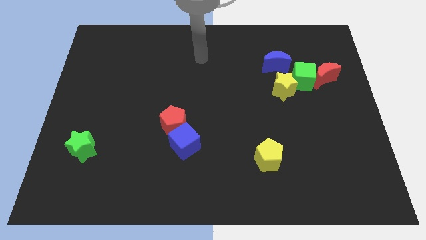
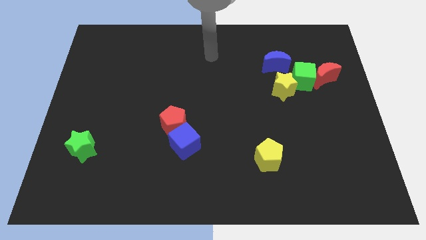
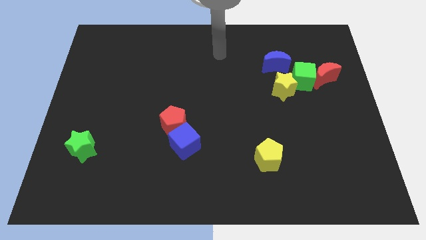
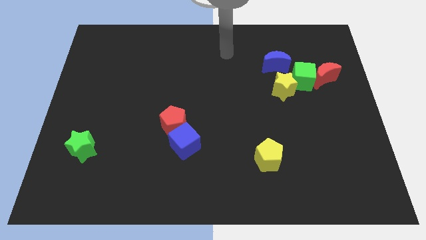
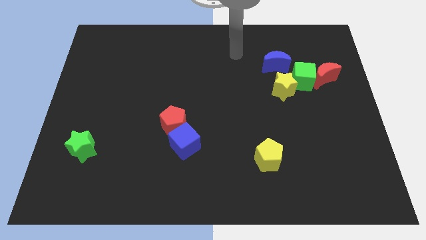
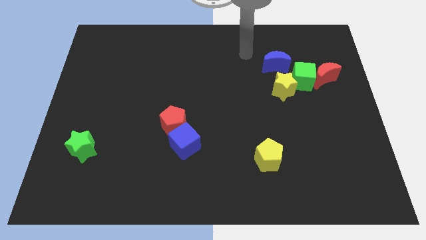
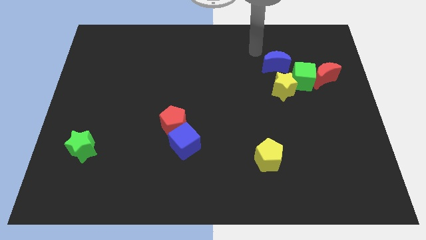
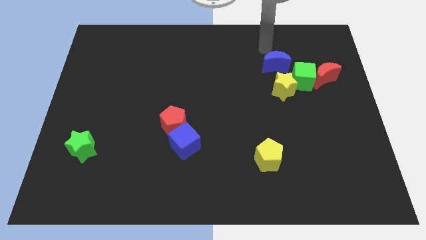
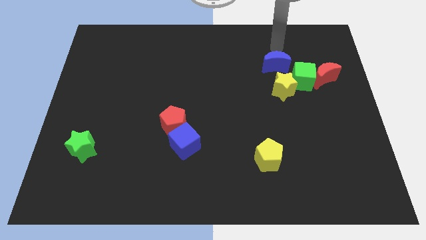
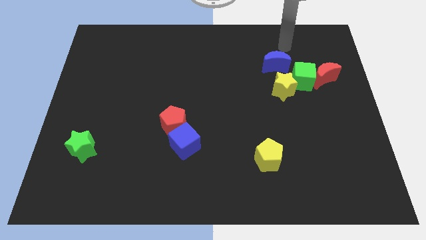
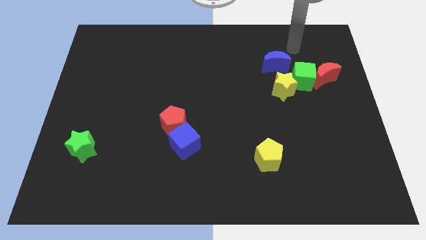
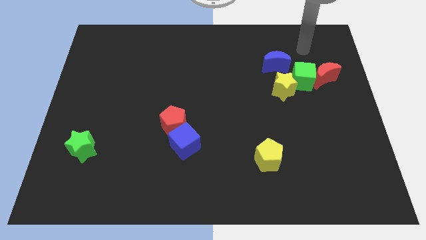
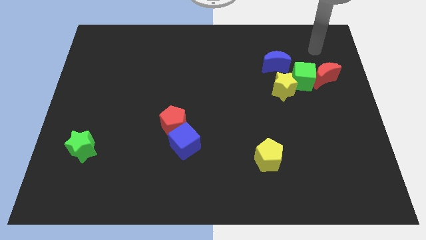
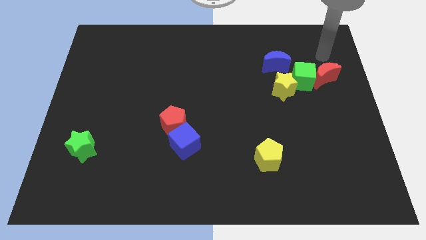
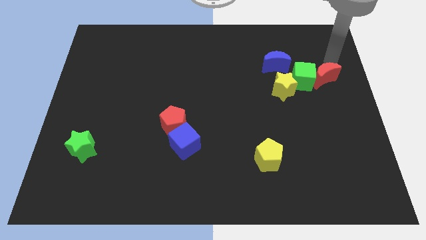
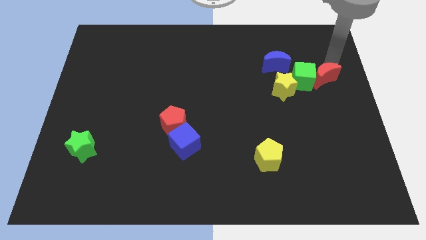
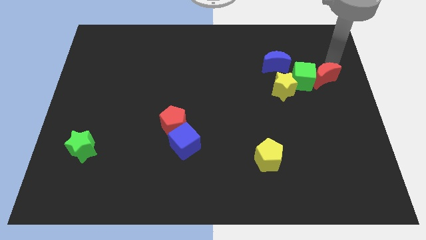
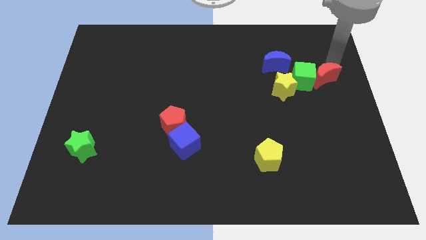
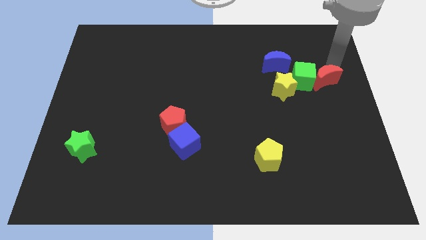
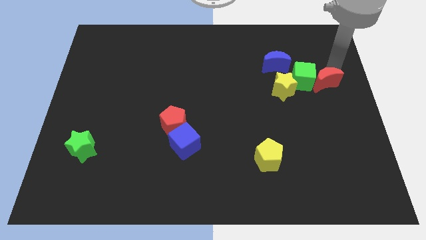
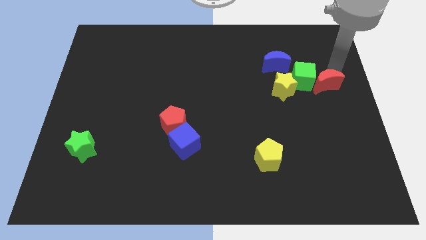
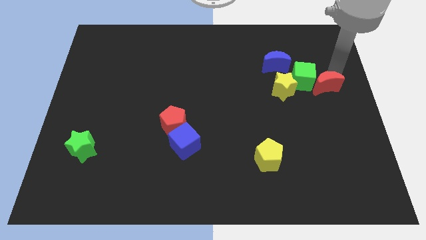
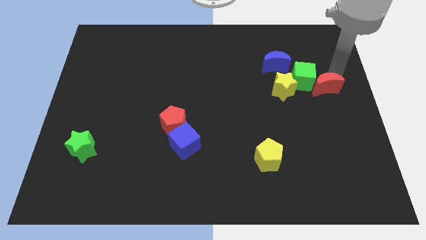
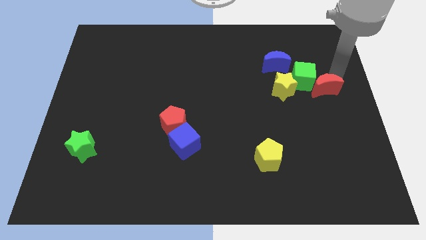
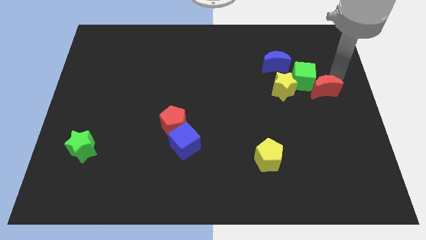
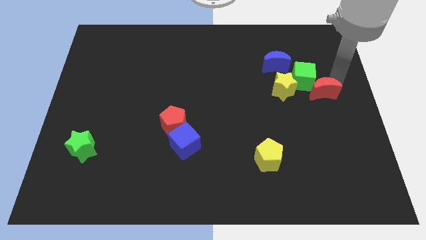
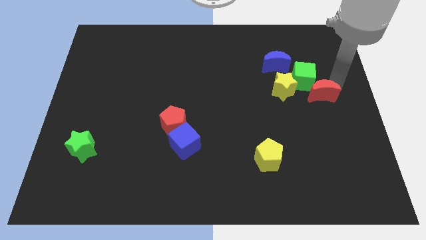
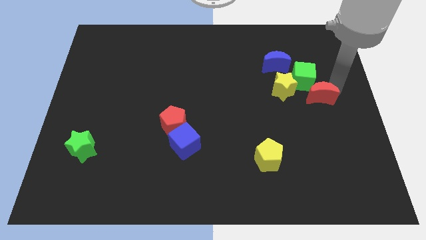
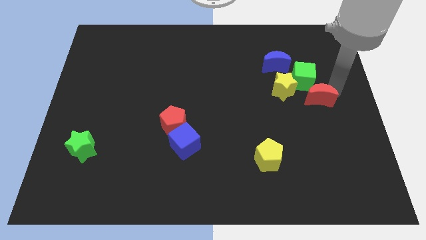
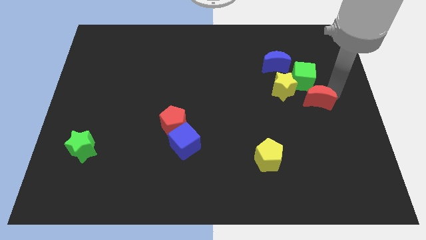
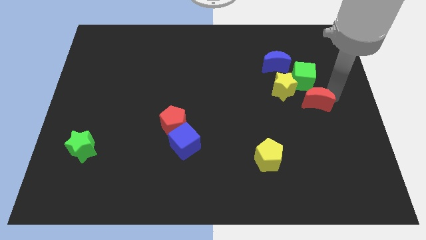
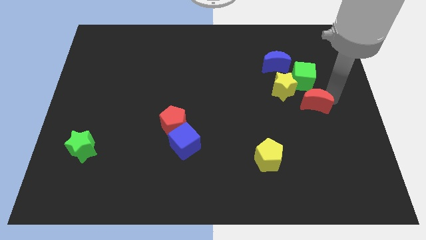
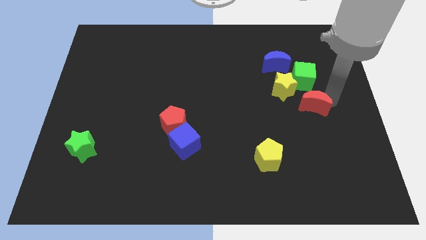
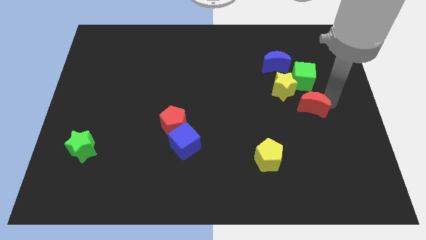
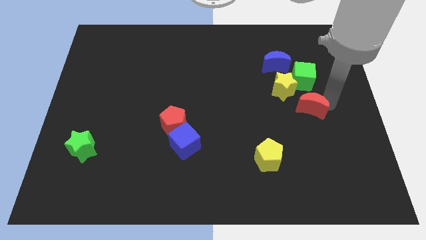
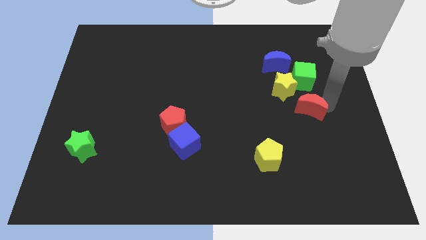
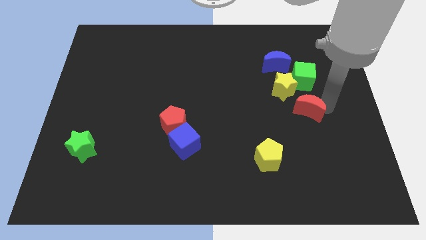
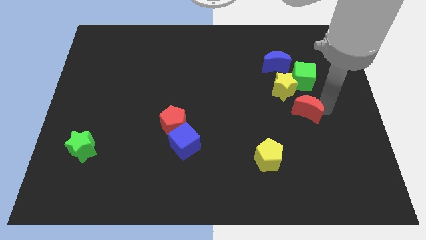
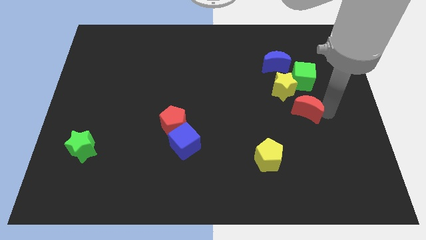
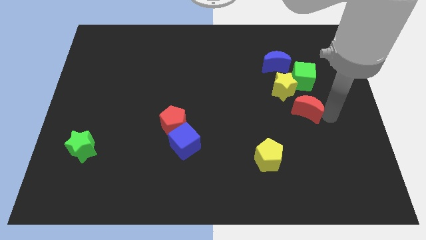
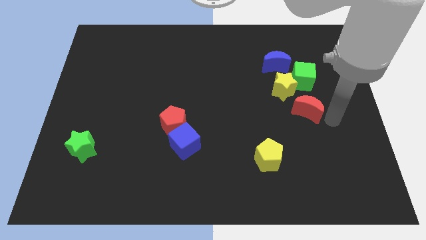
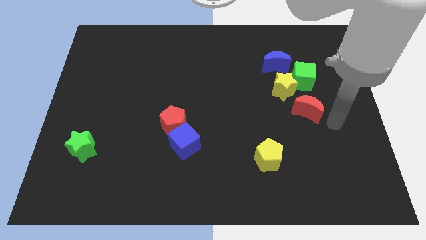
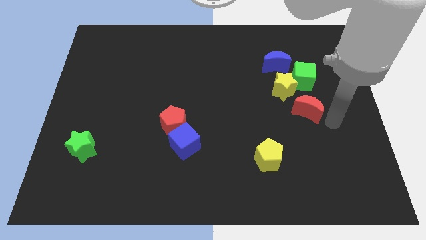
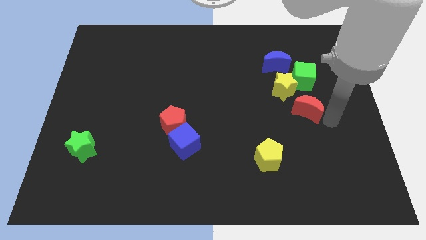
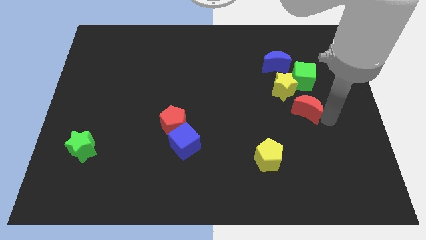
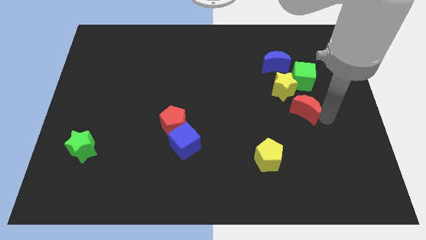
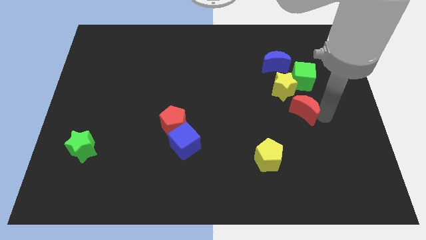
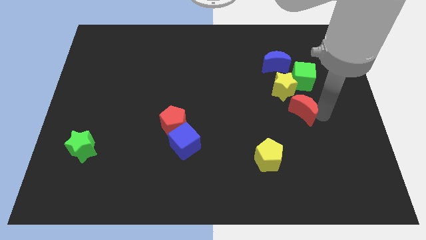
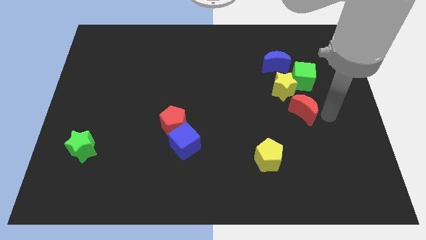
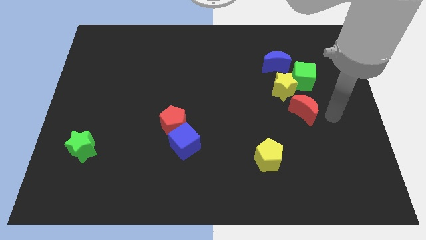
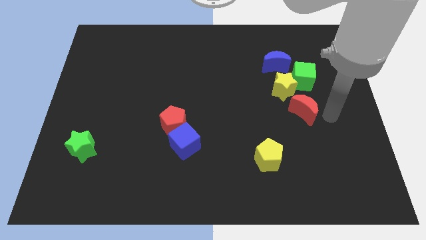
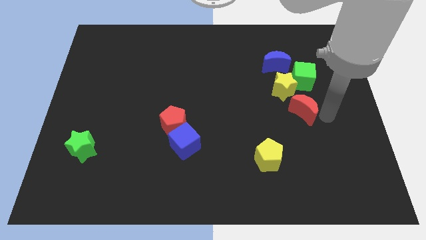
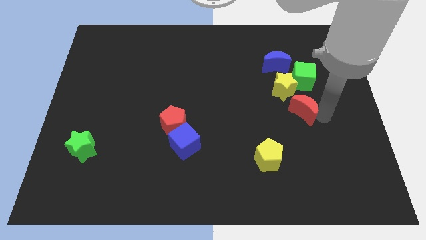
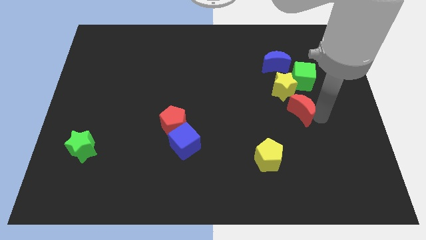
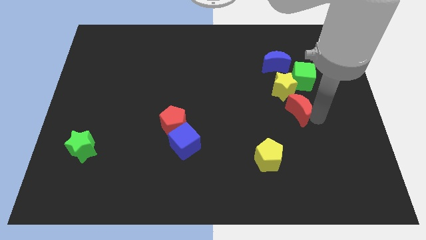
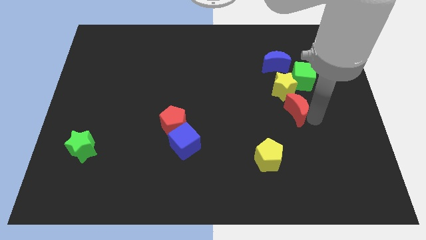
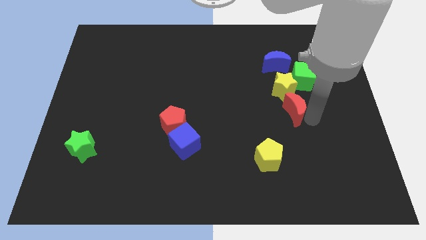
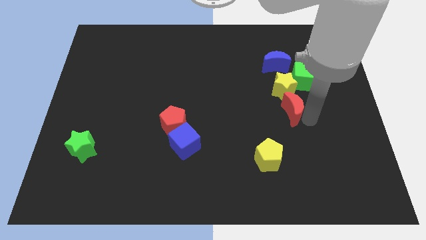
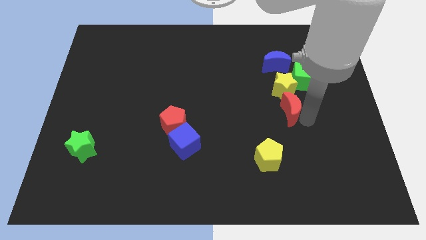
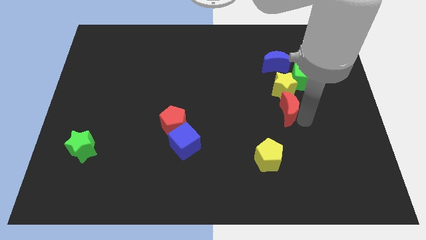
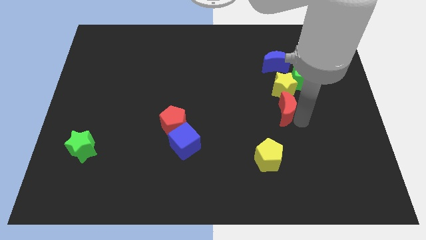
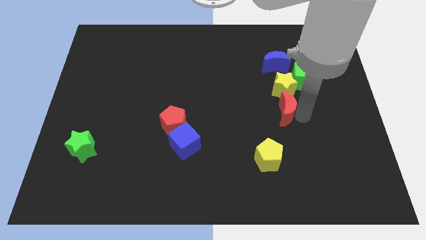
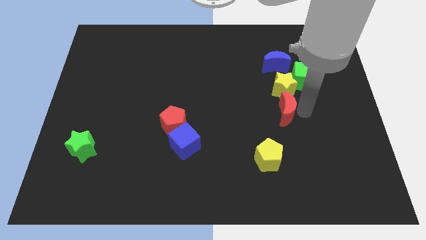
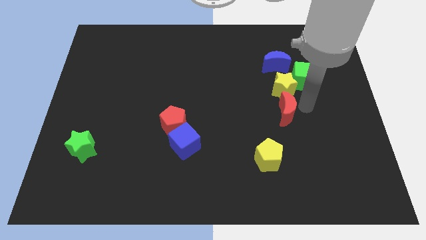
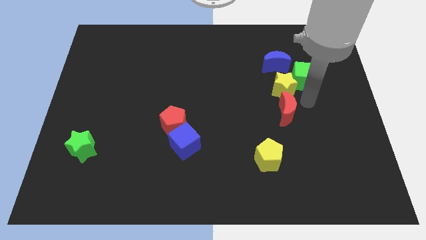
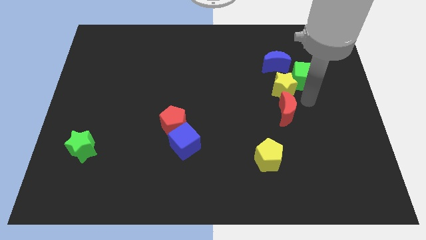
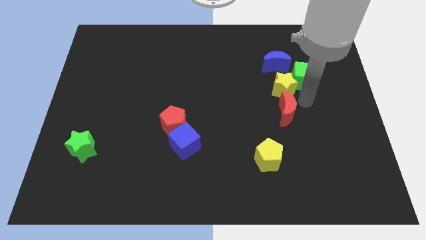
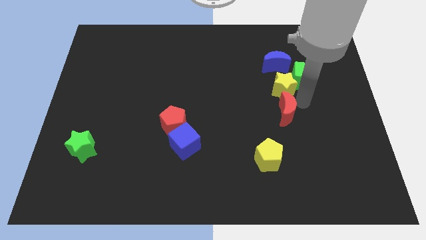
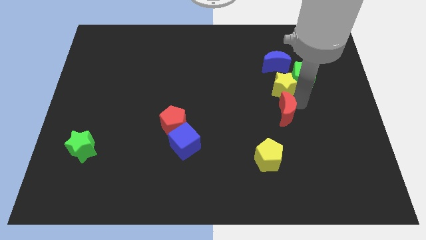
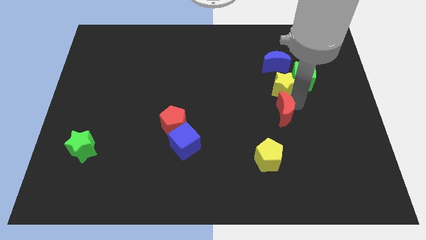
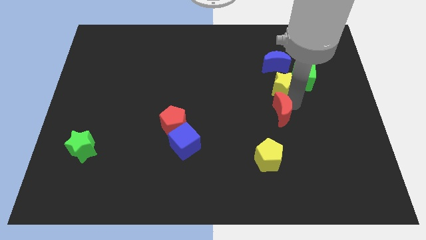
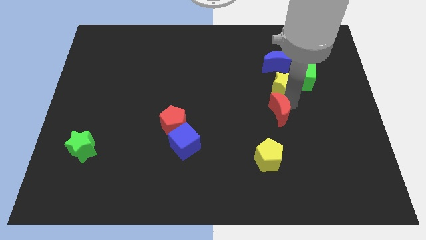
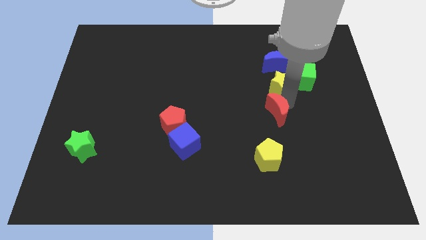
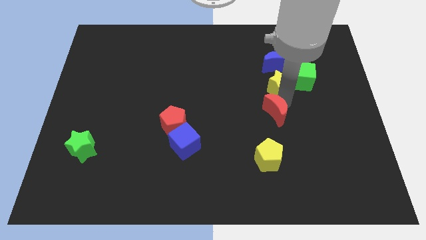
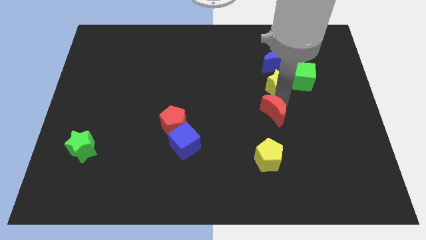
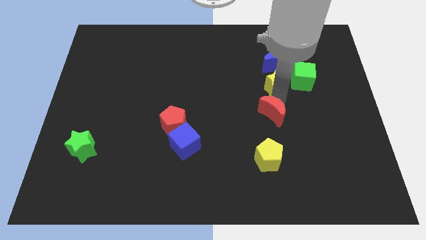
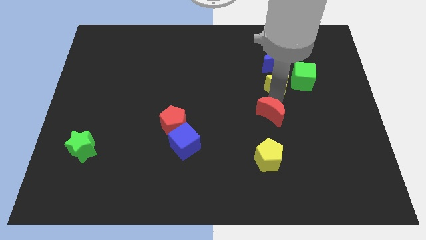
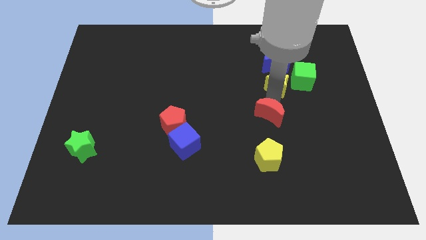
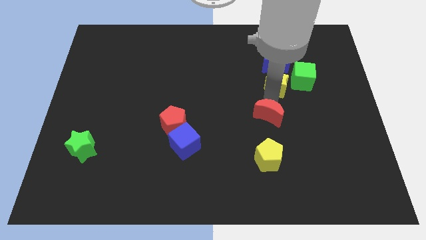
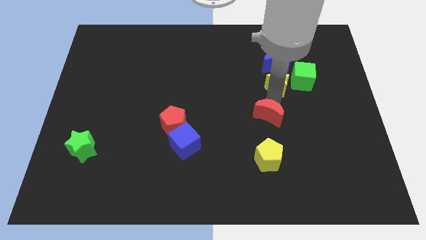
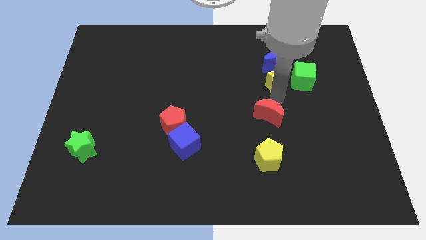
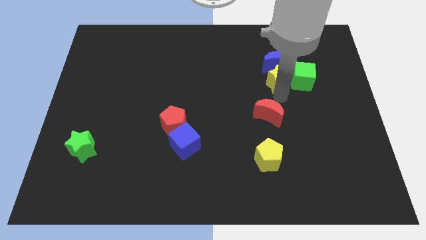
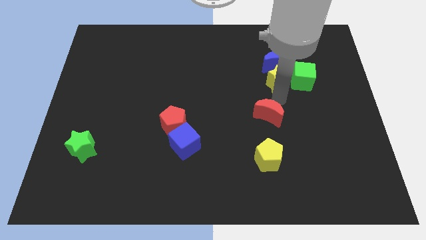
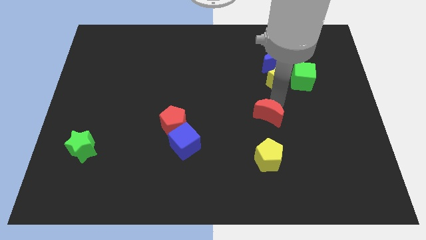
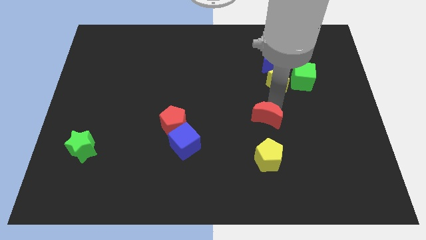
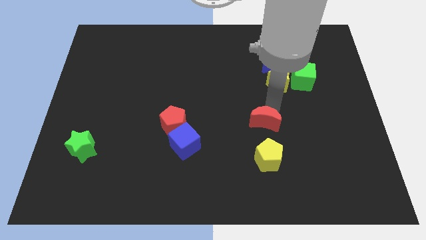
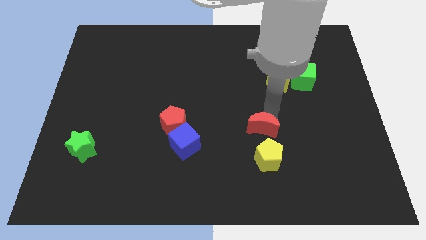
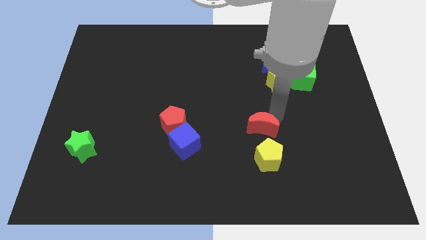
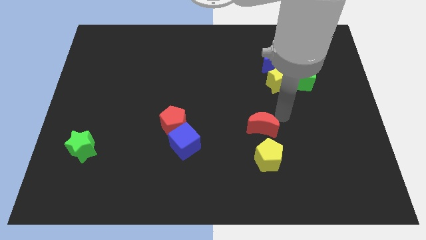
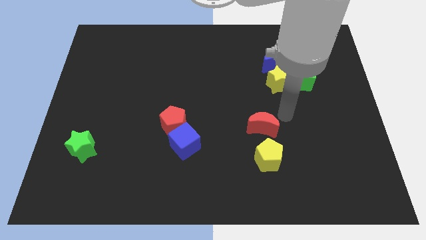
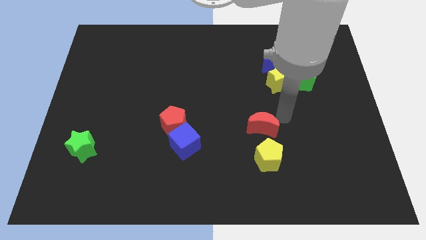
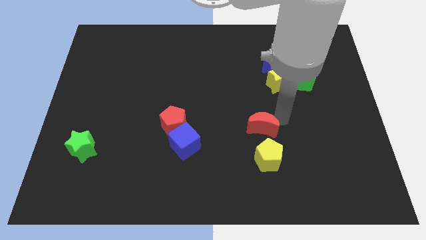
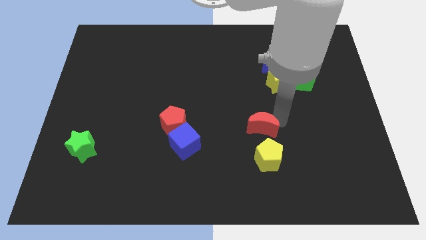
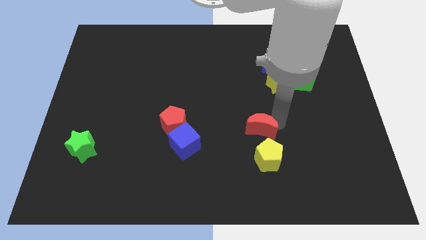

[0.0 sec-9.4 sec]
put the red moon diagonally up and to the left of the yellow pentagon
